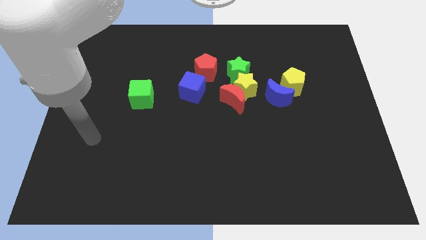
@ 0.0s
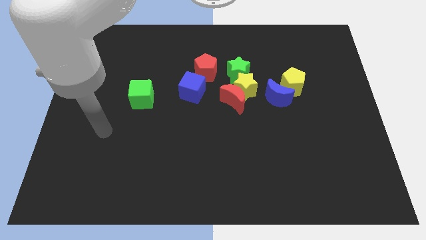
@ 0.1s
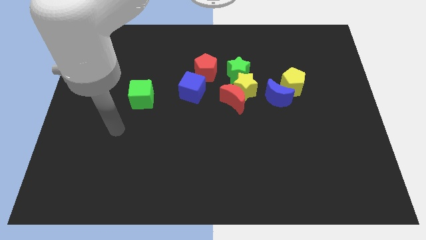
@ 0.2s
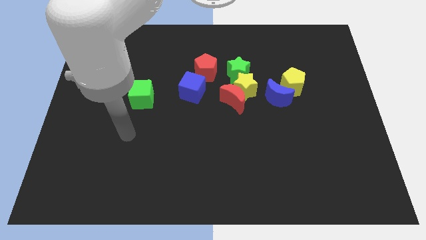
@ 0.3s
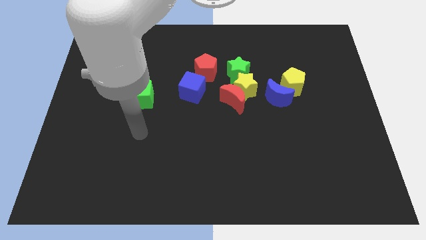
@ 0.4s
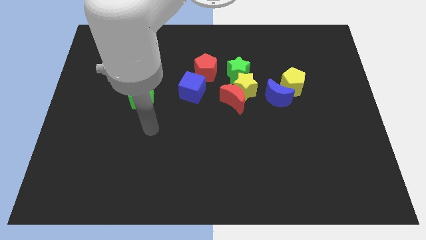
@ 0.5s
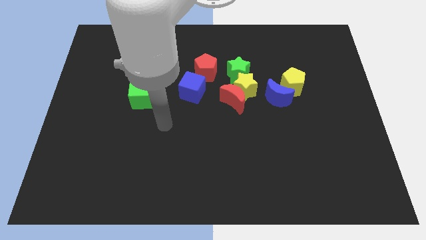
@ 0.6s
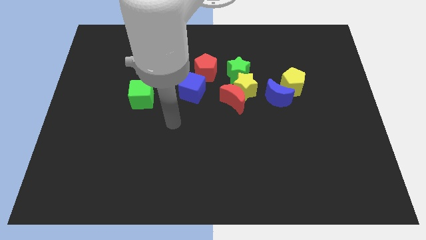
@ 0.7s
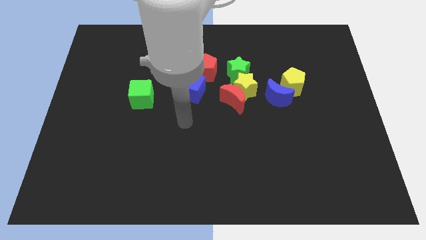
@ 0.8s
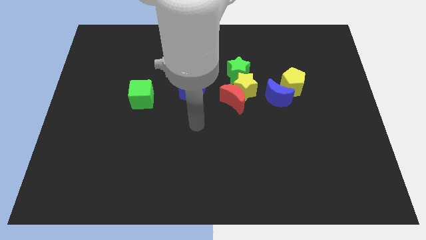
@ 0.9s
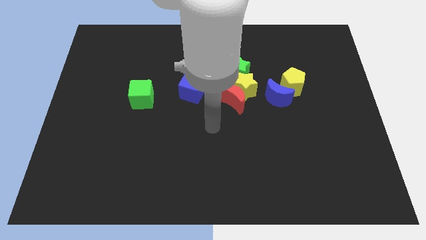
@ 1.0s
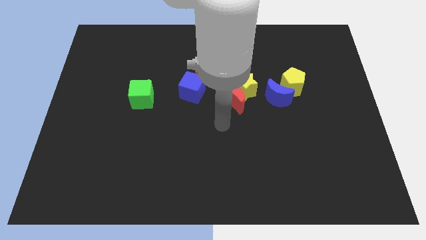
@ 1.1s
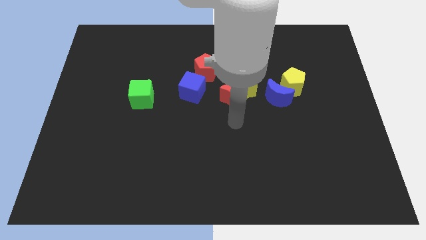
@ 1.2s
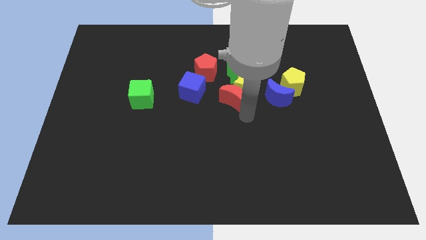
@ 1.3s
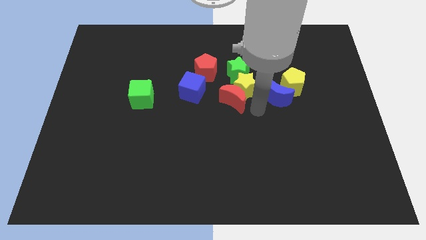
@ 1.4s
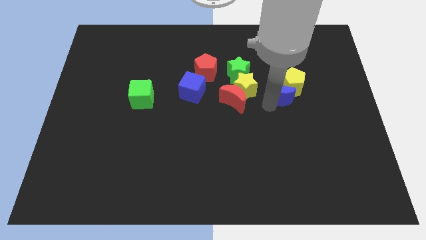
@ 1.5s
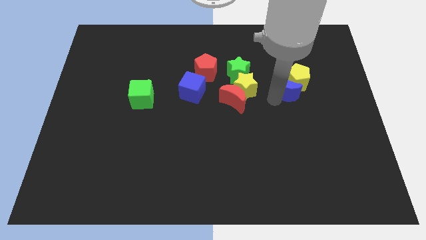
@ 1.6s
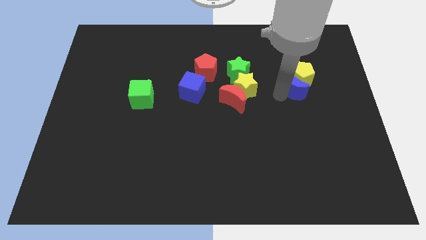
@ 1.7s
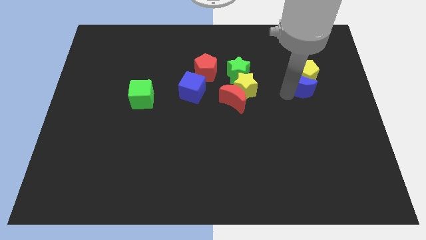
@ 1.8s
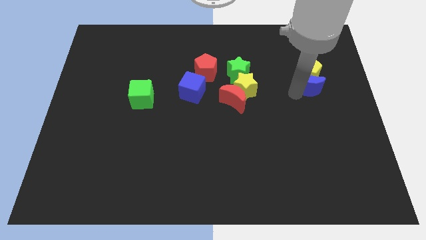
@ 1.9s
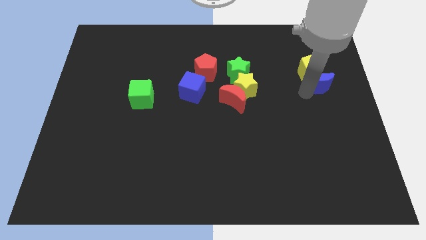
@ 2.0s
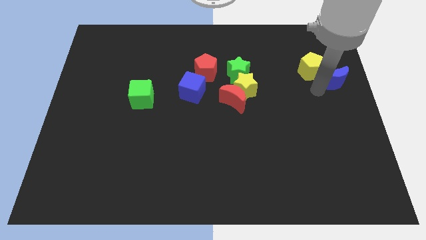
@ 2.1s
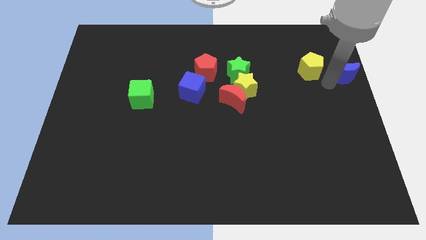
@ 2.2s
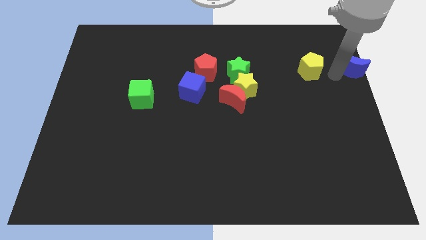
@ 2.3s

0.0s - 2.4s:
move the yellow pentagon away from the blue moon

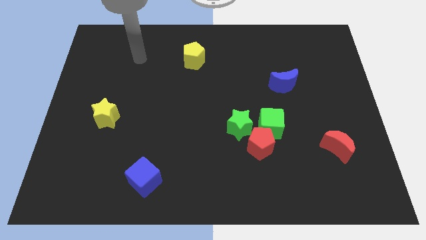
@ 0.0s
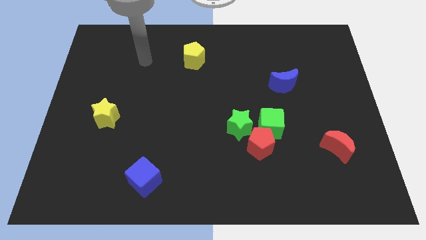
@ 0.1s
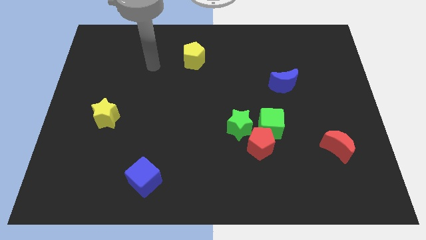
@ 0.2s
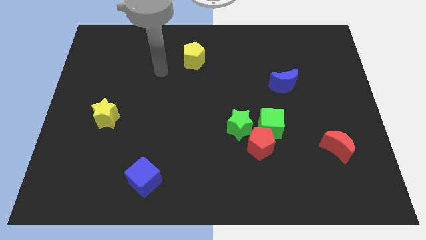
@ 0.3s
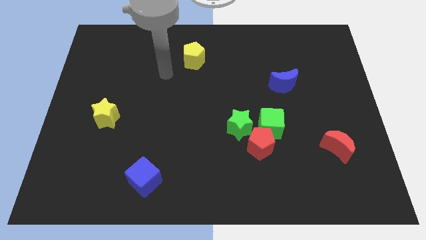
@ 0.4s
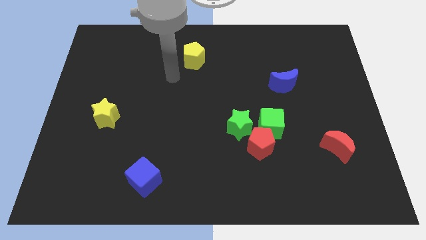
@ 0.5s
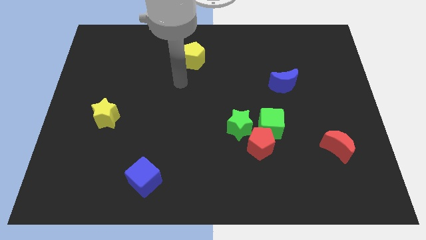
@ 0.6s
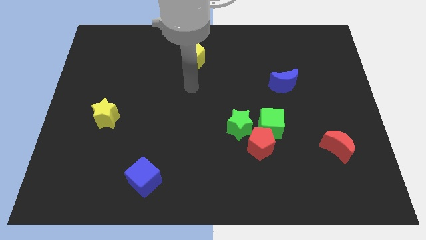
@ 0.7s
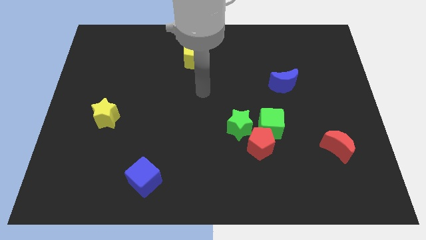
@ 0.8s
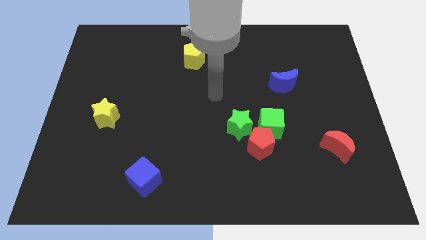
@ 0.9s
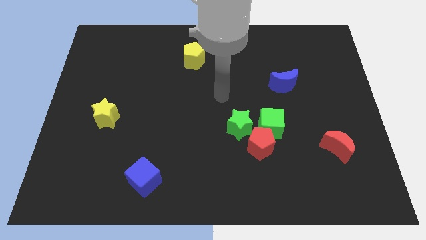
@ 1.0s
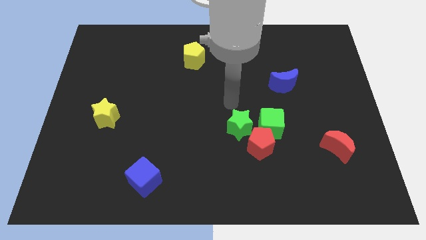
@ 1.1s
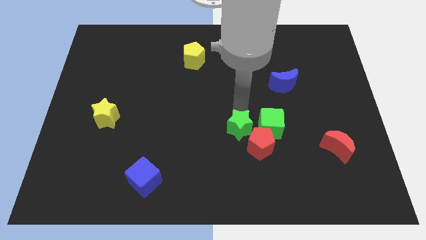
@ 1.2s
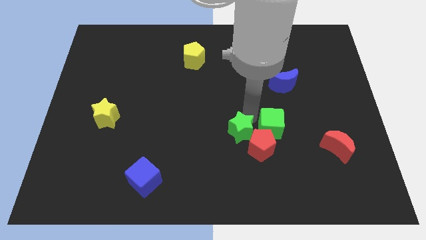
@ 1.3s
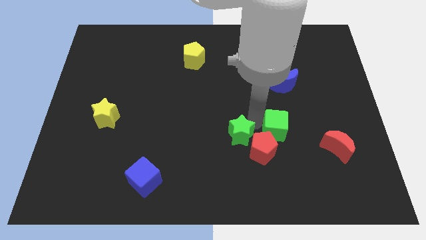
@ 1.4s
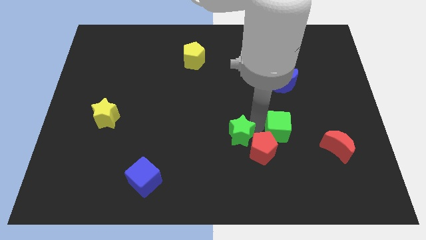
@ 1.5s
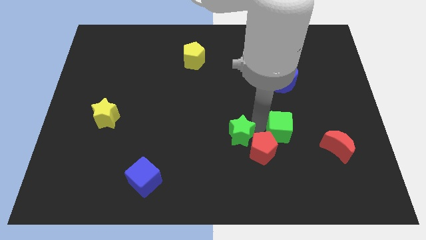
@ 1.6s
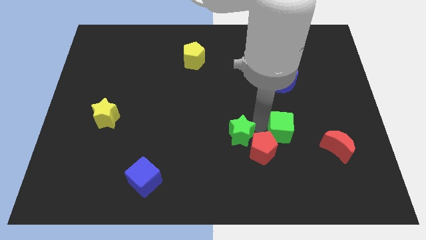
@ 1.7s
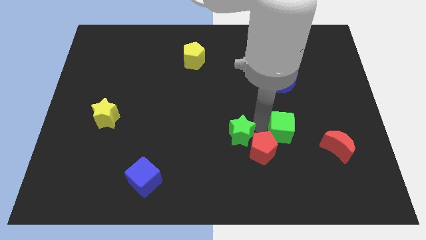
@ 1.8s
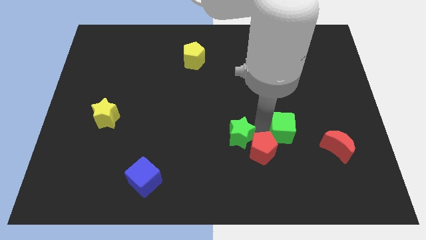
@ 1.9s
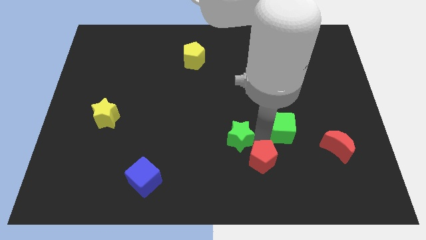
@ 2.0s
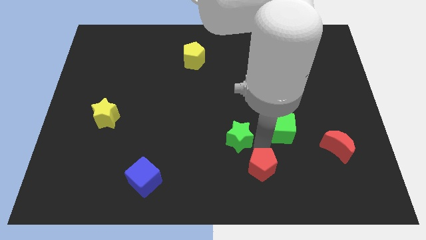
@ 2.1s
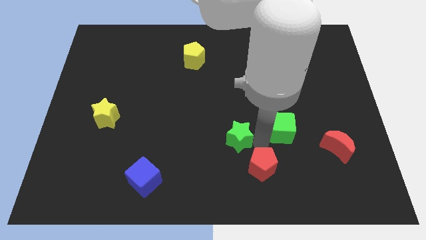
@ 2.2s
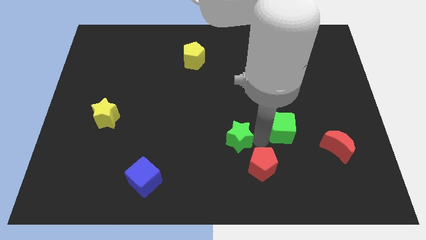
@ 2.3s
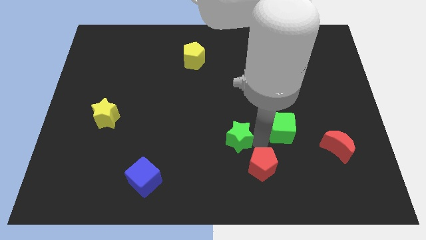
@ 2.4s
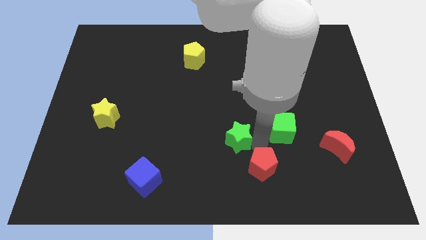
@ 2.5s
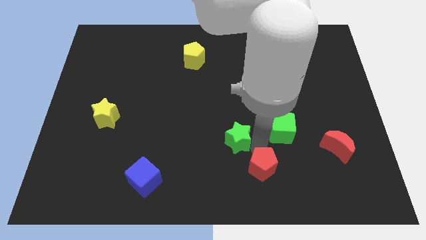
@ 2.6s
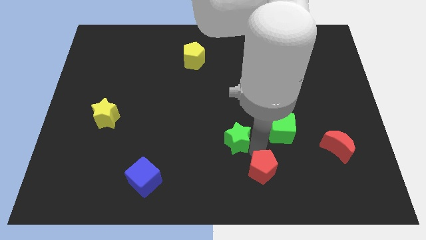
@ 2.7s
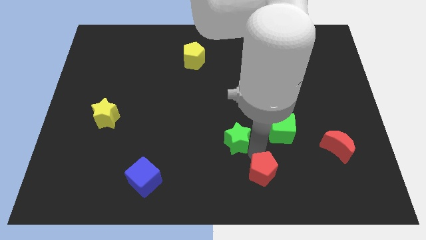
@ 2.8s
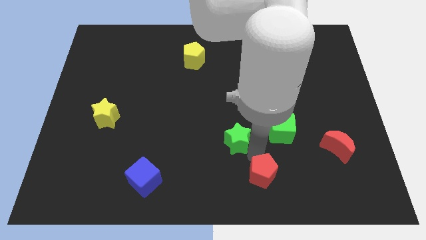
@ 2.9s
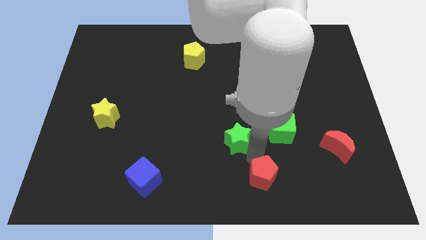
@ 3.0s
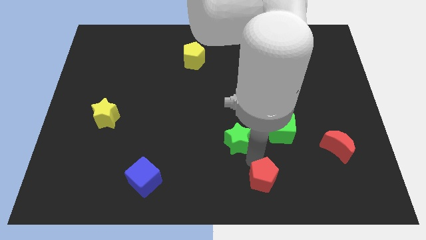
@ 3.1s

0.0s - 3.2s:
separate the red pentagon from the green cube and green star

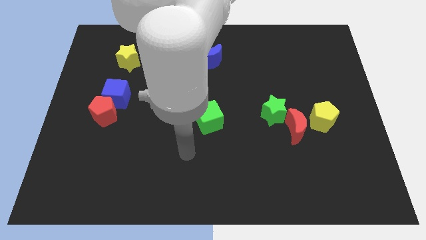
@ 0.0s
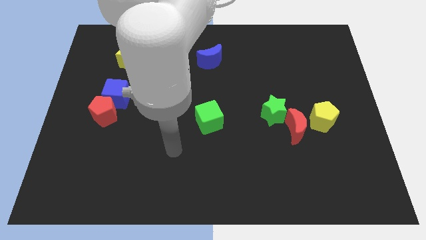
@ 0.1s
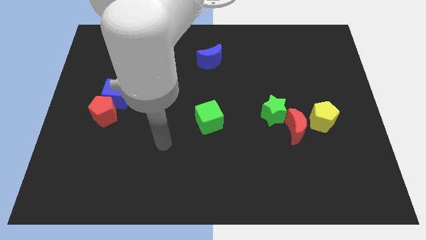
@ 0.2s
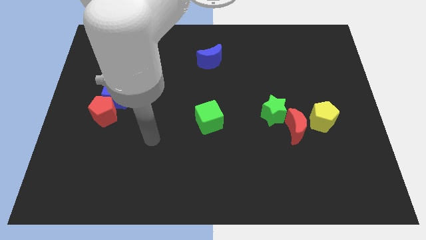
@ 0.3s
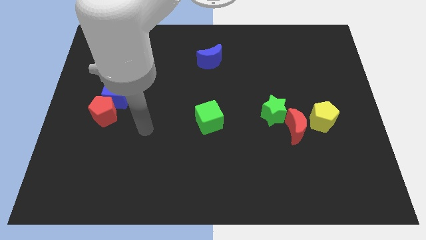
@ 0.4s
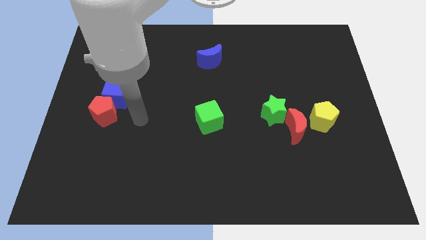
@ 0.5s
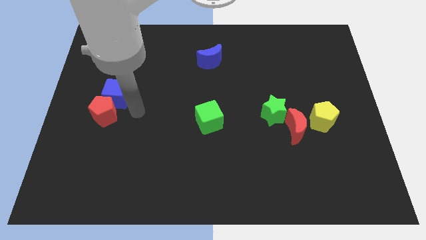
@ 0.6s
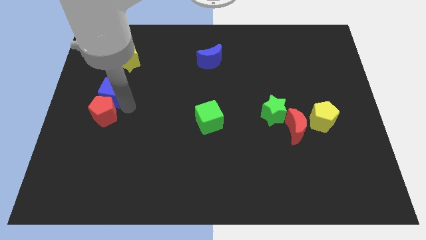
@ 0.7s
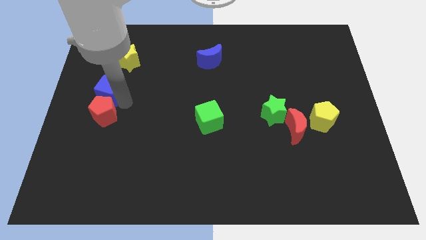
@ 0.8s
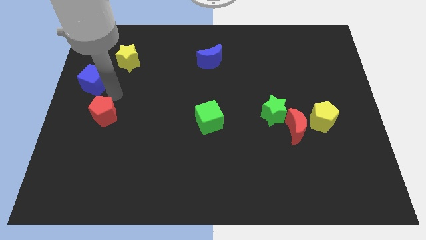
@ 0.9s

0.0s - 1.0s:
move the red pentagon away from the blue cube

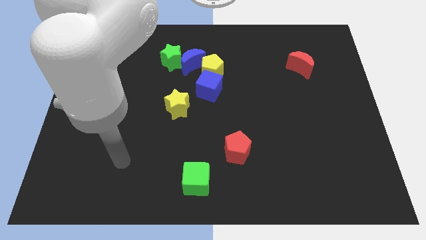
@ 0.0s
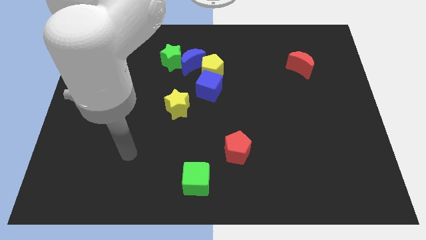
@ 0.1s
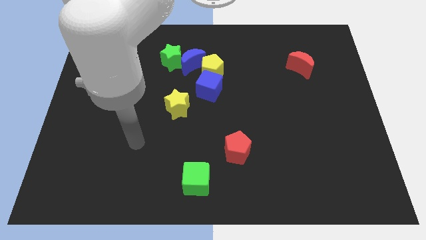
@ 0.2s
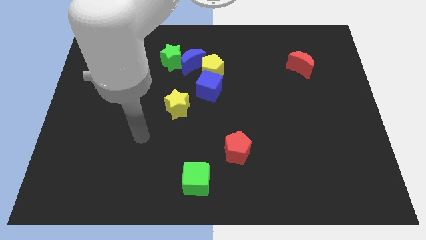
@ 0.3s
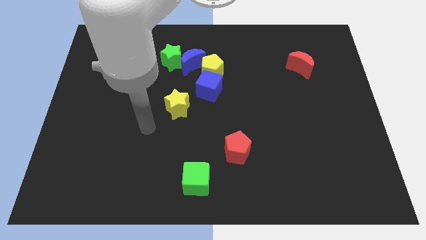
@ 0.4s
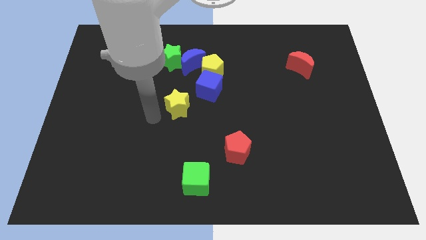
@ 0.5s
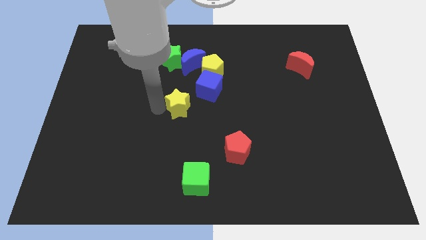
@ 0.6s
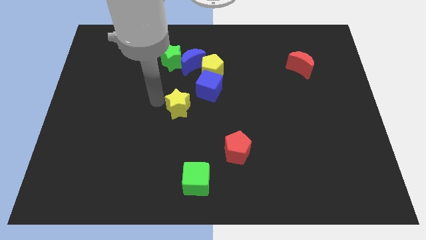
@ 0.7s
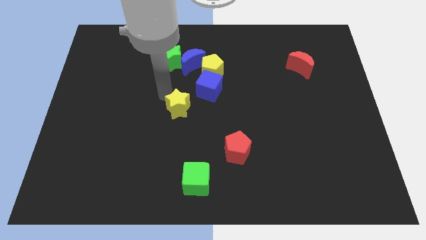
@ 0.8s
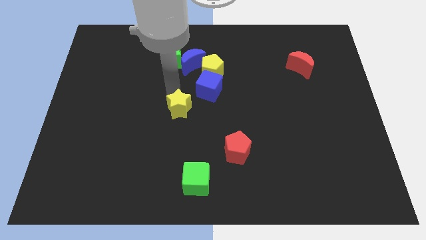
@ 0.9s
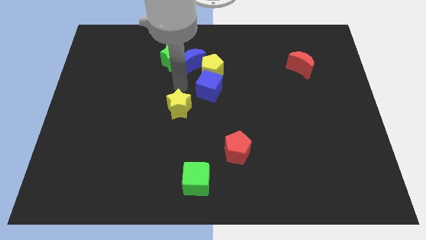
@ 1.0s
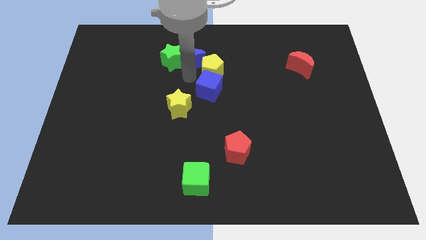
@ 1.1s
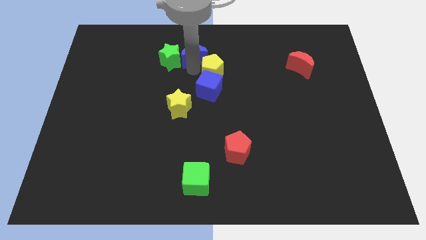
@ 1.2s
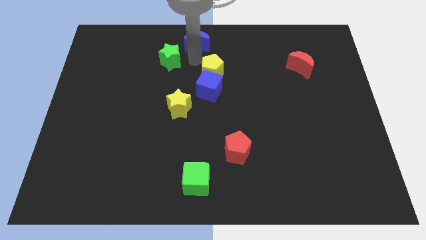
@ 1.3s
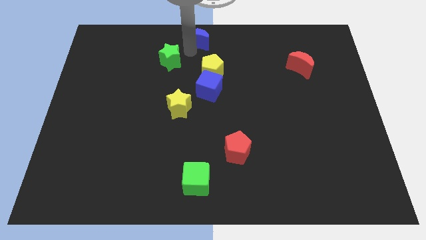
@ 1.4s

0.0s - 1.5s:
pull the green star apart from the blue moon

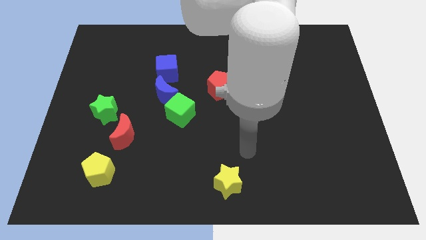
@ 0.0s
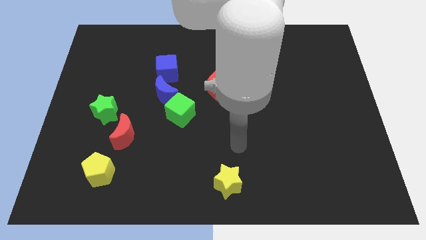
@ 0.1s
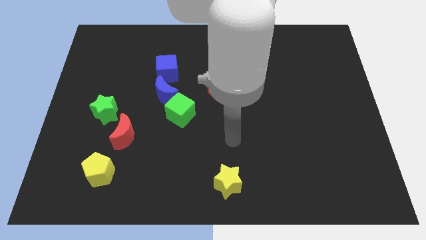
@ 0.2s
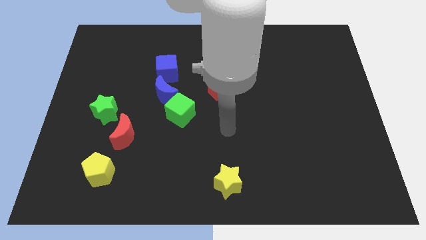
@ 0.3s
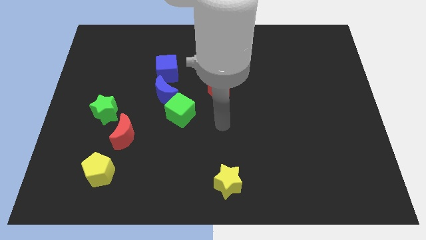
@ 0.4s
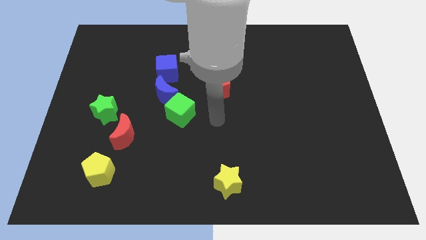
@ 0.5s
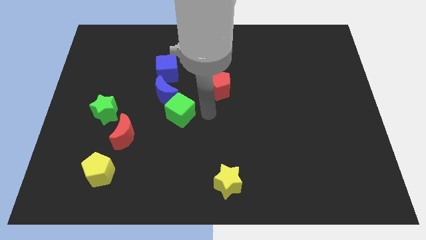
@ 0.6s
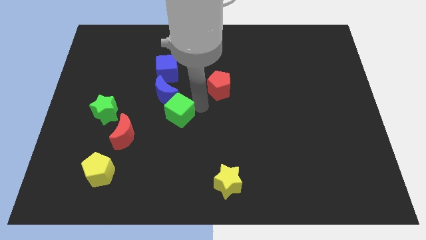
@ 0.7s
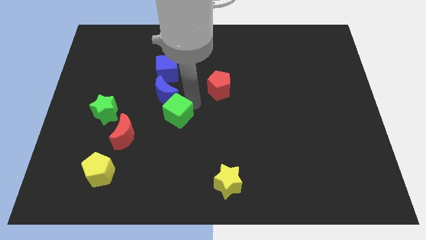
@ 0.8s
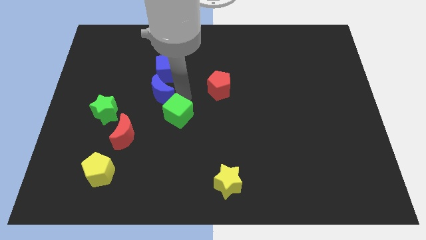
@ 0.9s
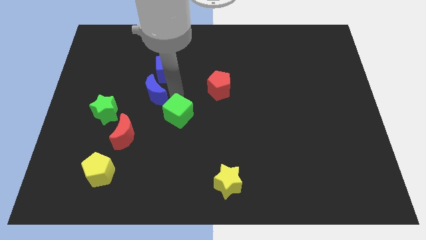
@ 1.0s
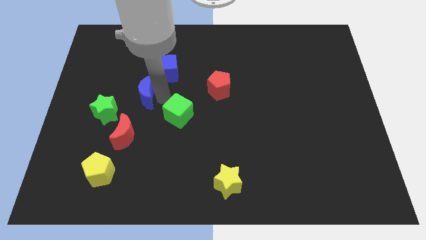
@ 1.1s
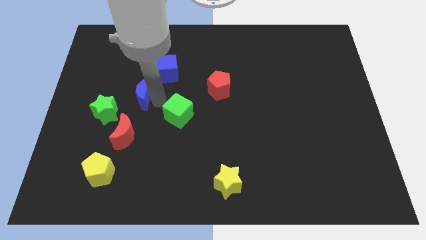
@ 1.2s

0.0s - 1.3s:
move the green cube away from the blue moon
